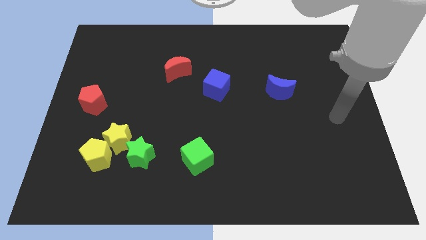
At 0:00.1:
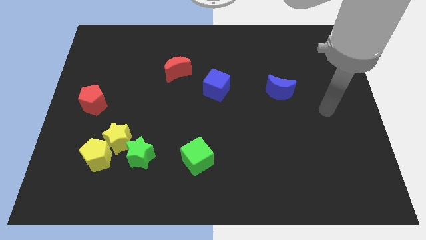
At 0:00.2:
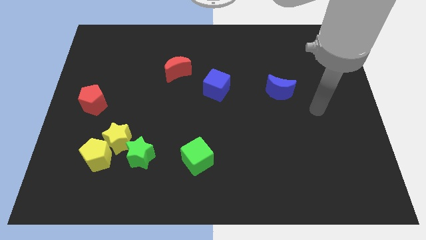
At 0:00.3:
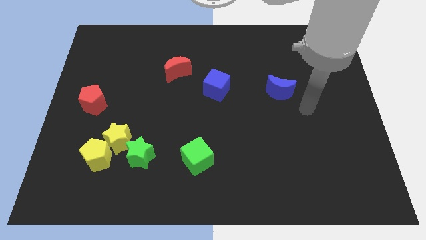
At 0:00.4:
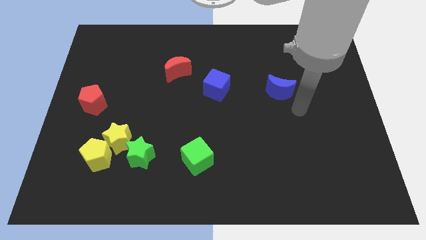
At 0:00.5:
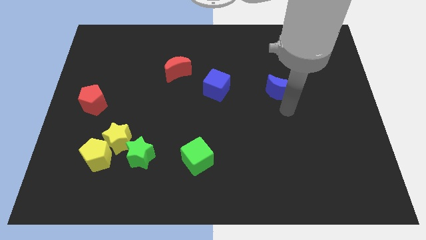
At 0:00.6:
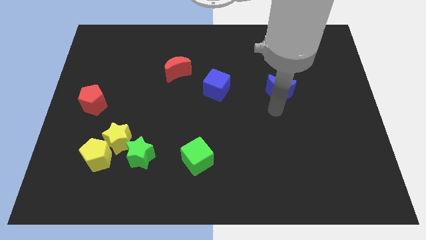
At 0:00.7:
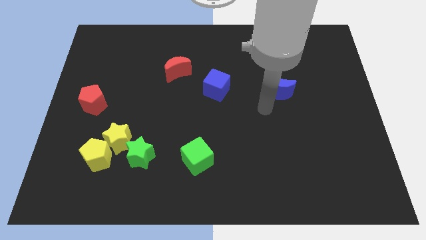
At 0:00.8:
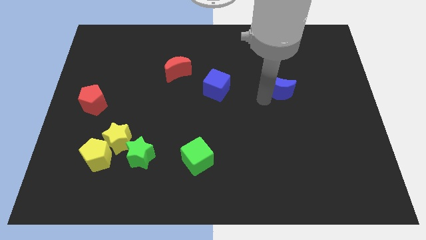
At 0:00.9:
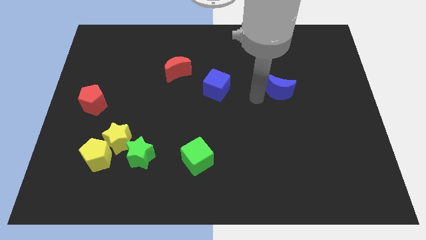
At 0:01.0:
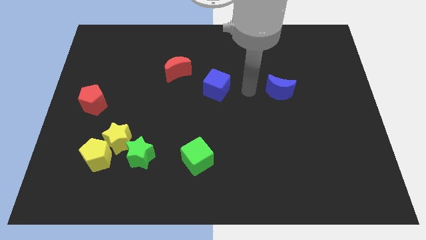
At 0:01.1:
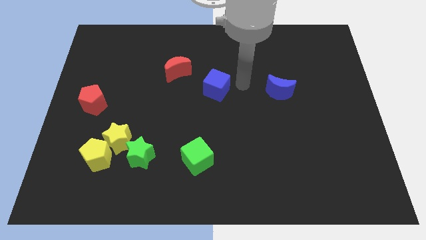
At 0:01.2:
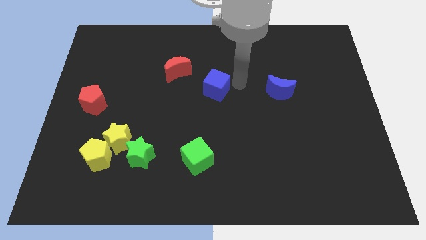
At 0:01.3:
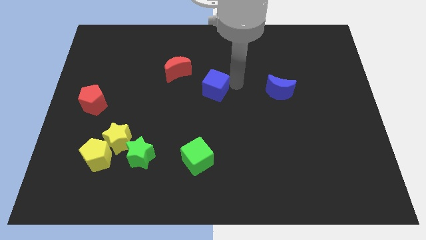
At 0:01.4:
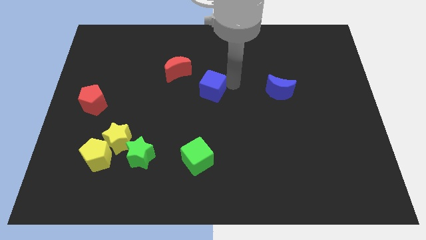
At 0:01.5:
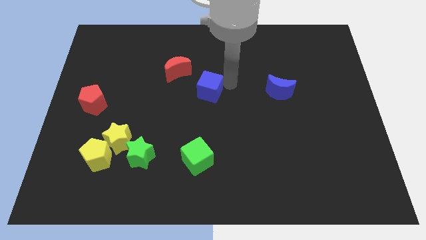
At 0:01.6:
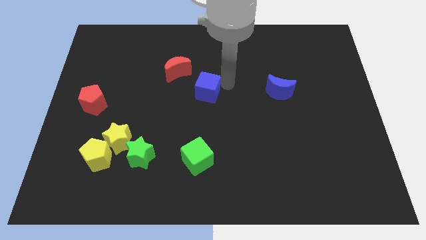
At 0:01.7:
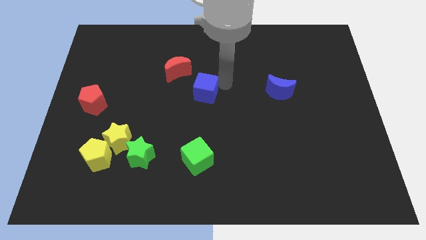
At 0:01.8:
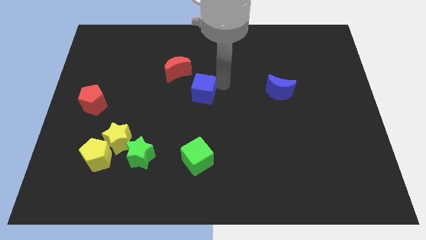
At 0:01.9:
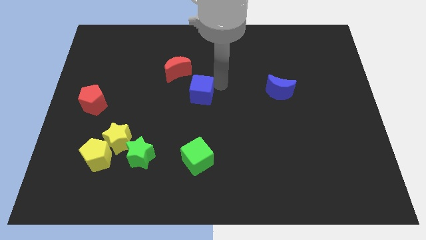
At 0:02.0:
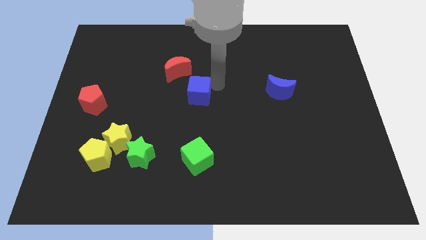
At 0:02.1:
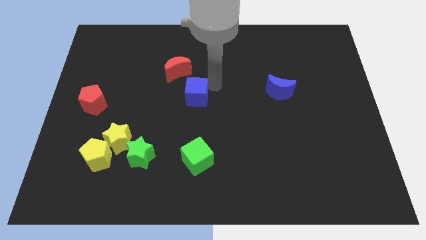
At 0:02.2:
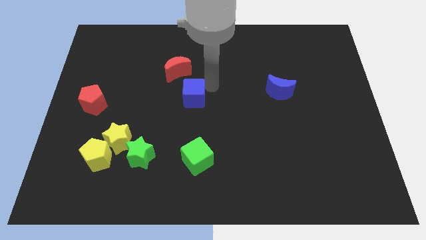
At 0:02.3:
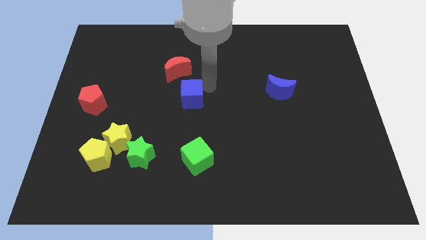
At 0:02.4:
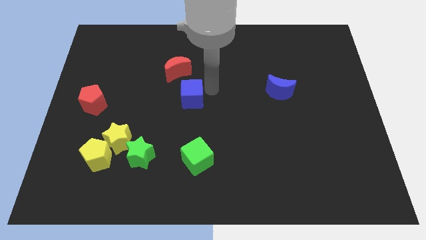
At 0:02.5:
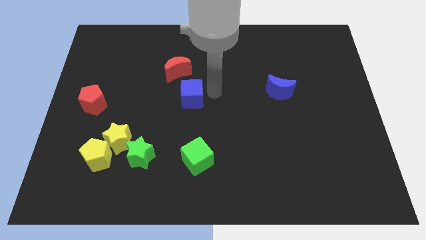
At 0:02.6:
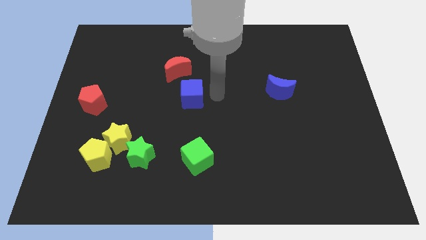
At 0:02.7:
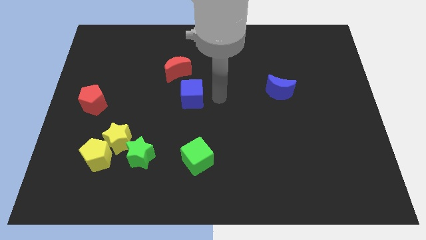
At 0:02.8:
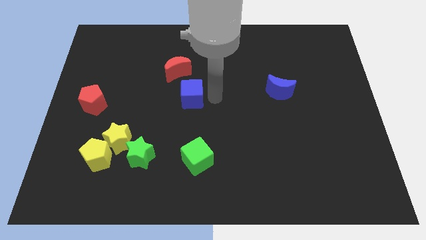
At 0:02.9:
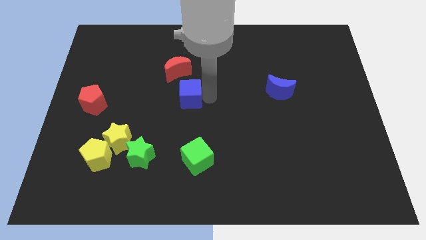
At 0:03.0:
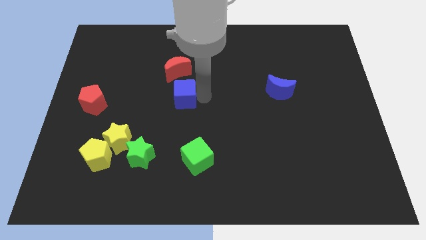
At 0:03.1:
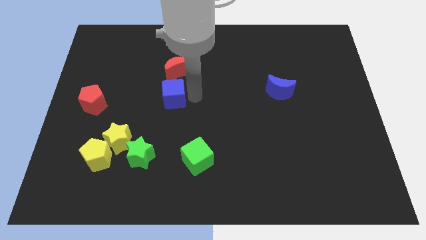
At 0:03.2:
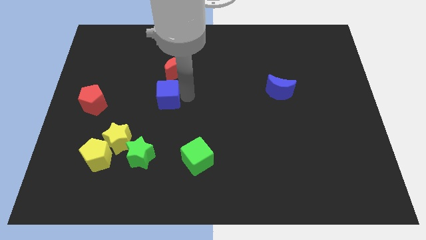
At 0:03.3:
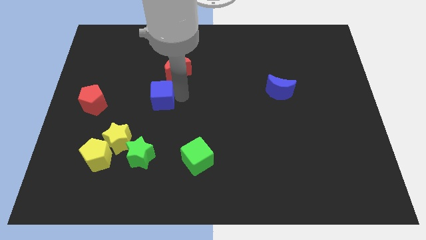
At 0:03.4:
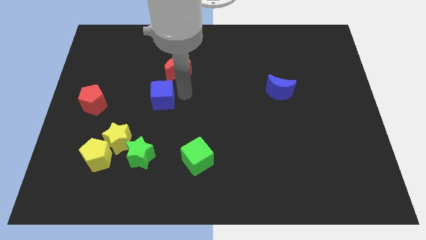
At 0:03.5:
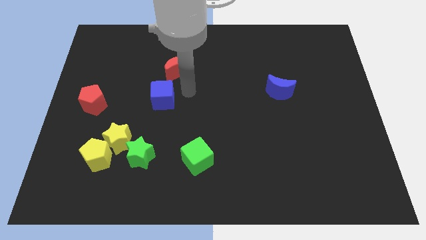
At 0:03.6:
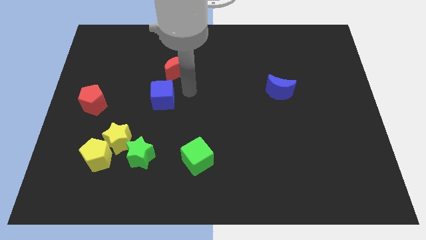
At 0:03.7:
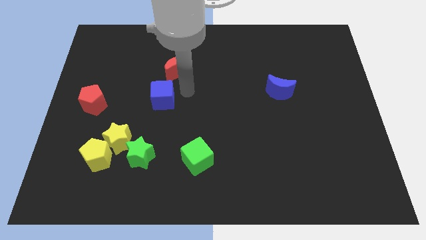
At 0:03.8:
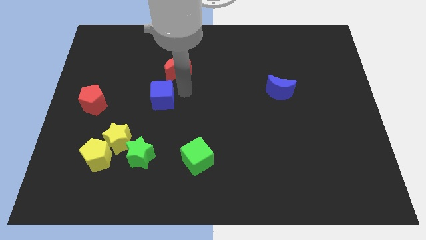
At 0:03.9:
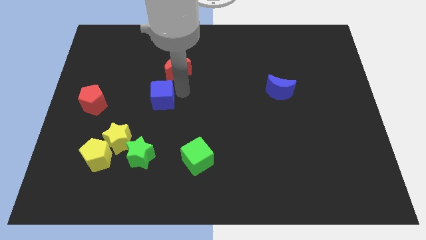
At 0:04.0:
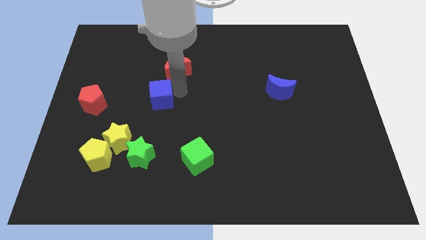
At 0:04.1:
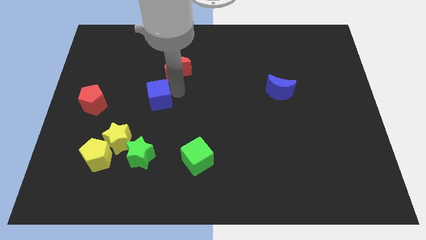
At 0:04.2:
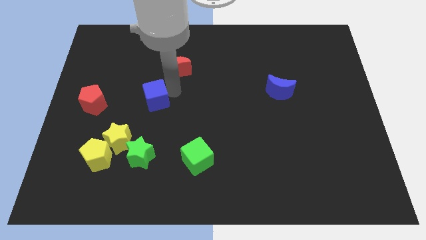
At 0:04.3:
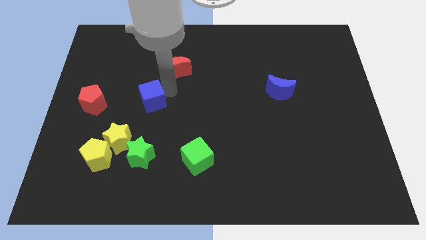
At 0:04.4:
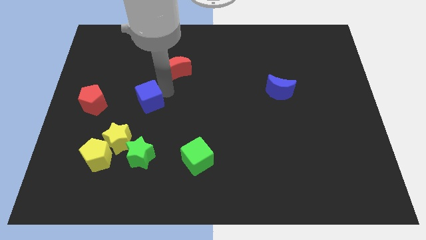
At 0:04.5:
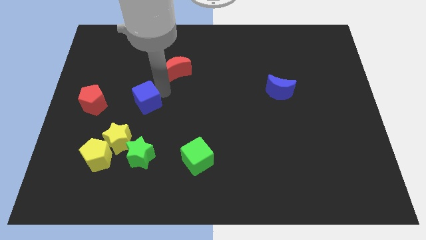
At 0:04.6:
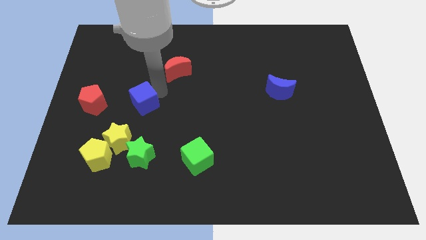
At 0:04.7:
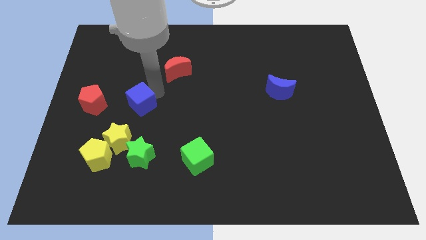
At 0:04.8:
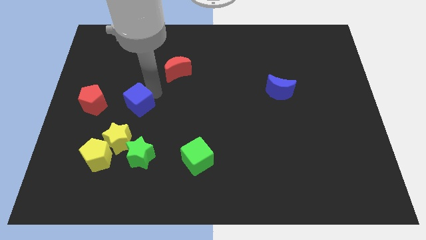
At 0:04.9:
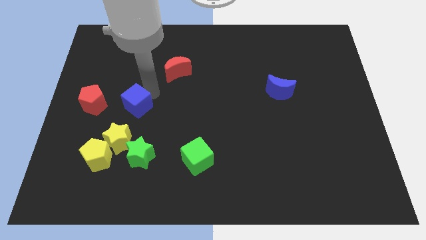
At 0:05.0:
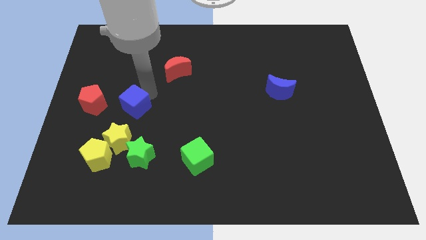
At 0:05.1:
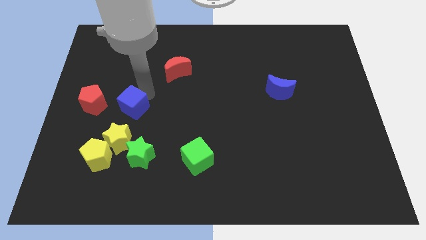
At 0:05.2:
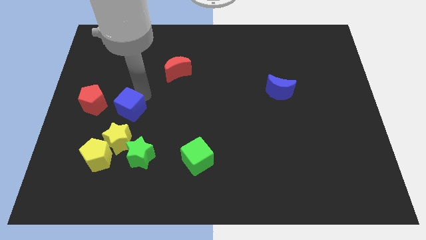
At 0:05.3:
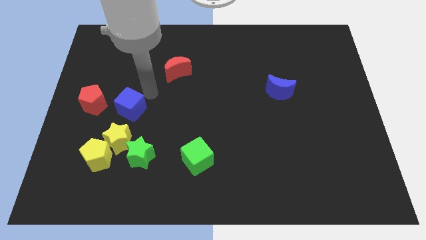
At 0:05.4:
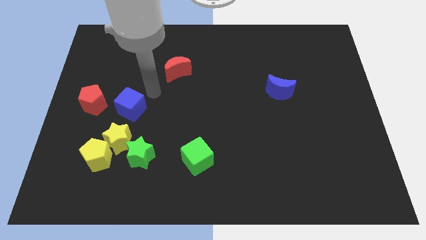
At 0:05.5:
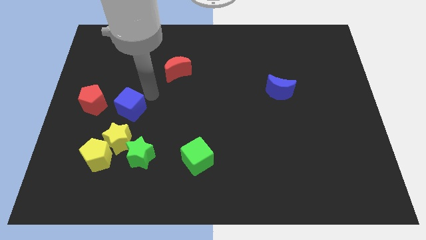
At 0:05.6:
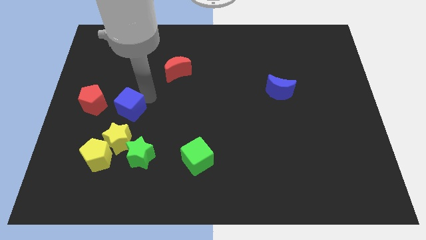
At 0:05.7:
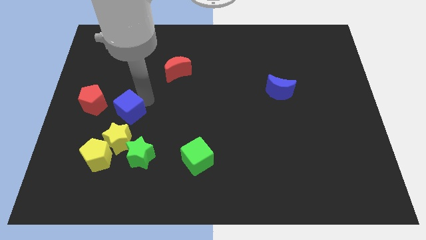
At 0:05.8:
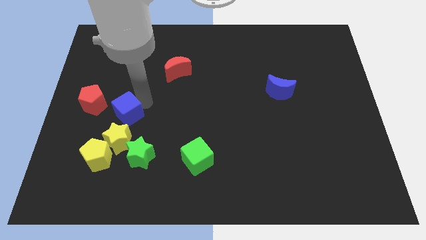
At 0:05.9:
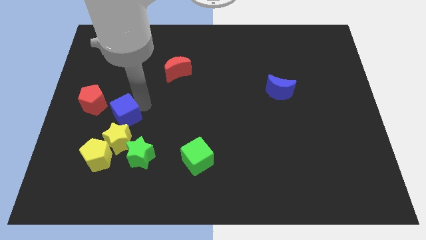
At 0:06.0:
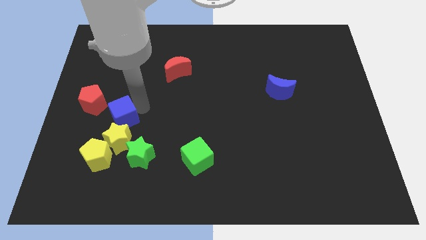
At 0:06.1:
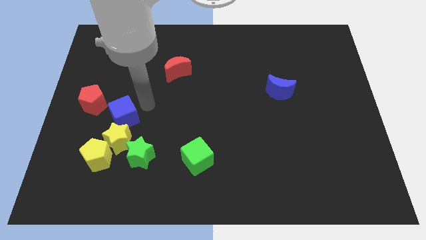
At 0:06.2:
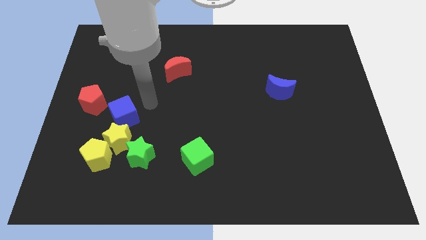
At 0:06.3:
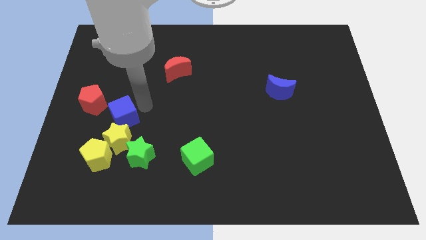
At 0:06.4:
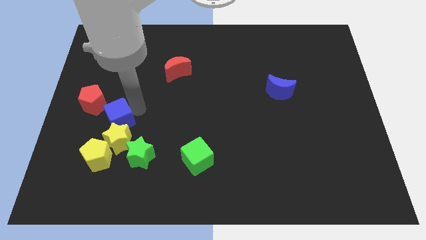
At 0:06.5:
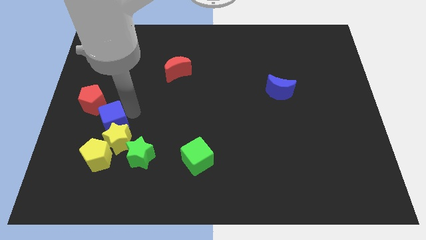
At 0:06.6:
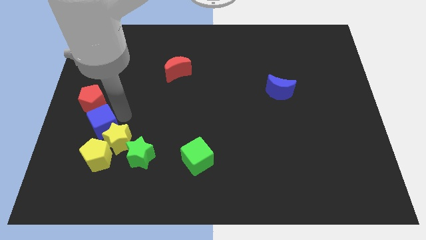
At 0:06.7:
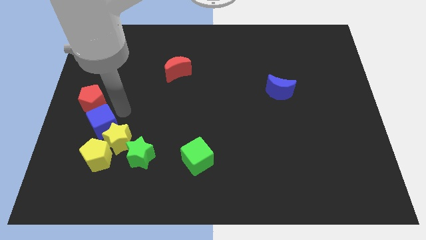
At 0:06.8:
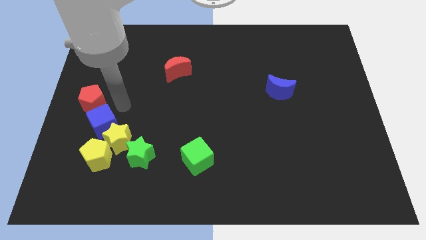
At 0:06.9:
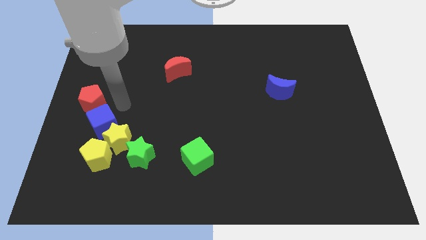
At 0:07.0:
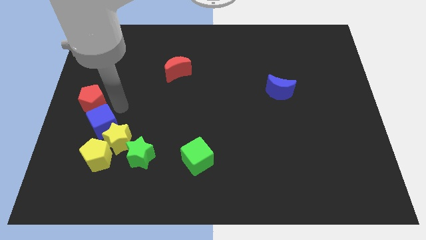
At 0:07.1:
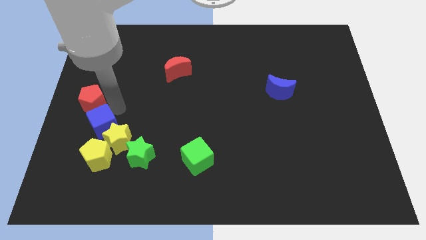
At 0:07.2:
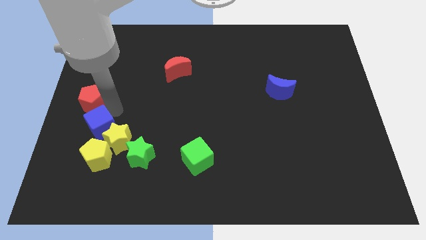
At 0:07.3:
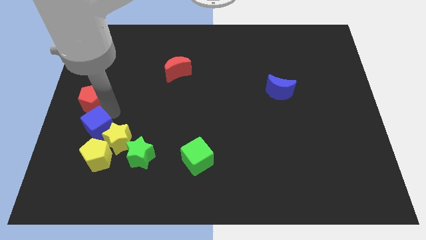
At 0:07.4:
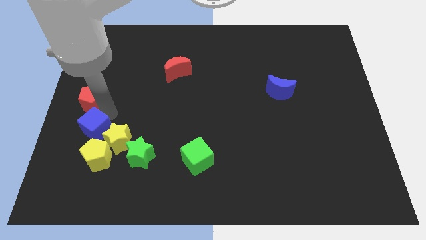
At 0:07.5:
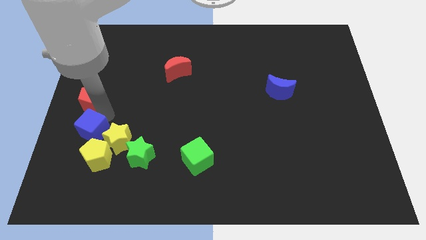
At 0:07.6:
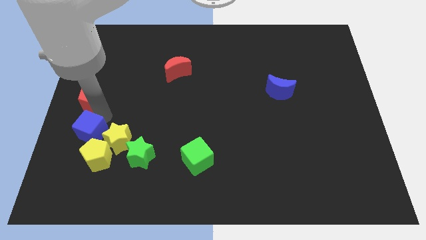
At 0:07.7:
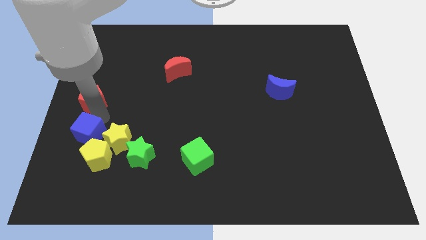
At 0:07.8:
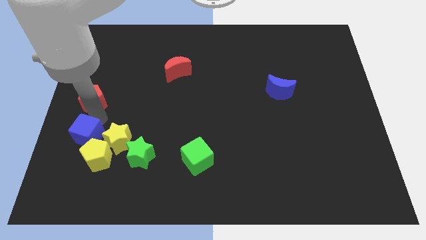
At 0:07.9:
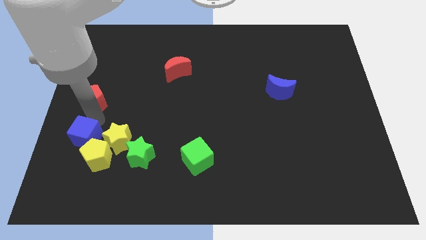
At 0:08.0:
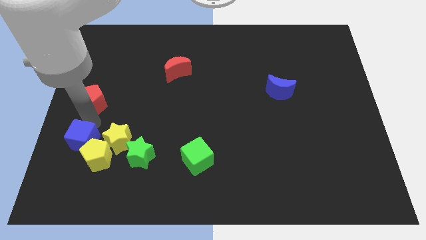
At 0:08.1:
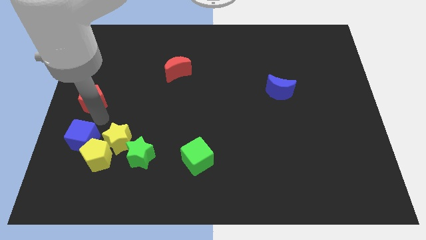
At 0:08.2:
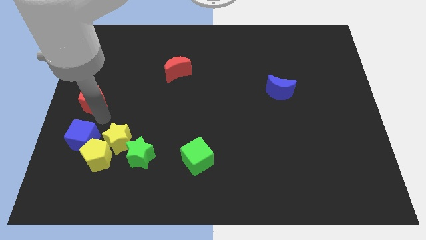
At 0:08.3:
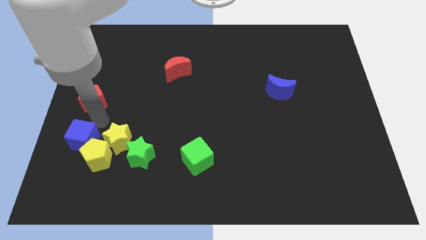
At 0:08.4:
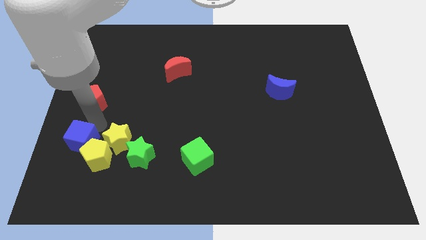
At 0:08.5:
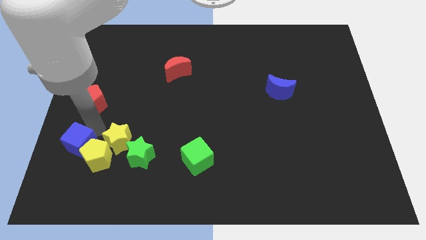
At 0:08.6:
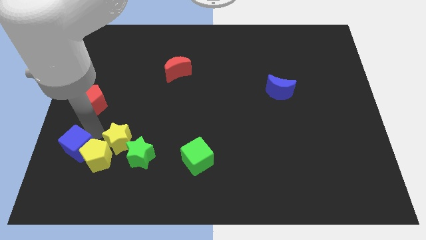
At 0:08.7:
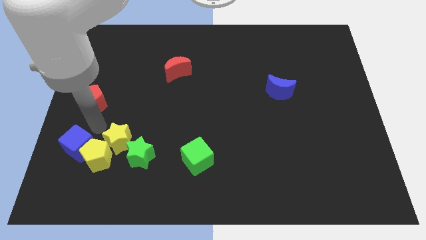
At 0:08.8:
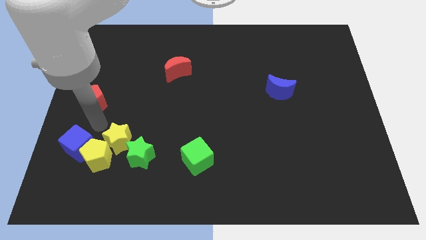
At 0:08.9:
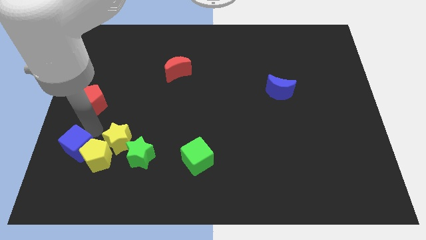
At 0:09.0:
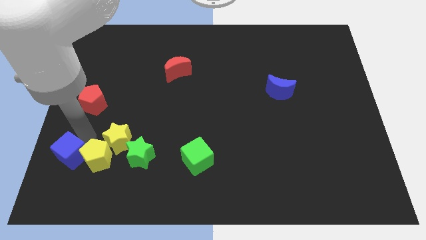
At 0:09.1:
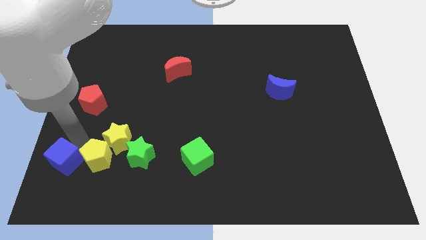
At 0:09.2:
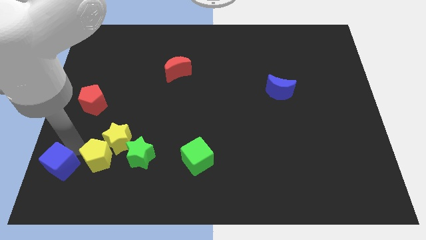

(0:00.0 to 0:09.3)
push the blue cube to the bottom left corner
